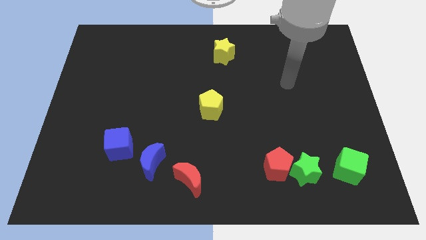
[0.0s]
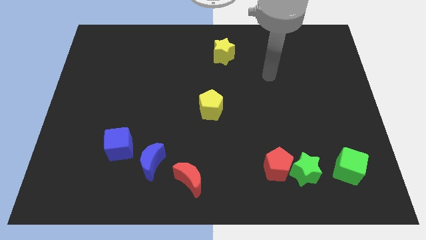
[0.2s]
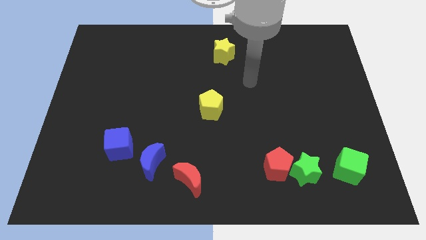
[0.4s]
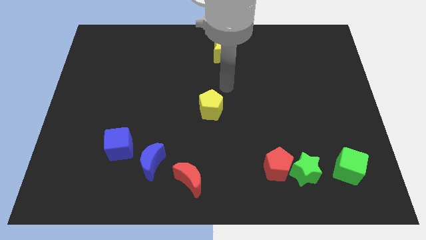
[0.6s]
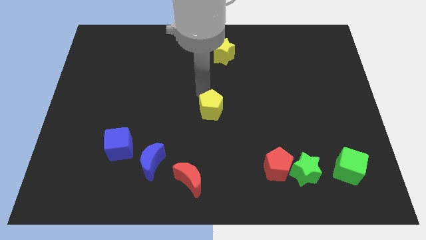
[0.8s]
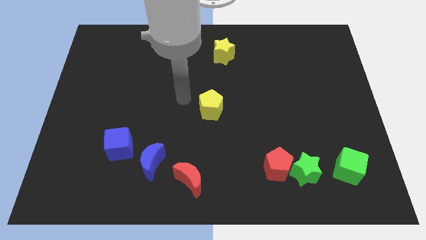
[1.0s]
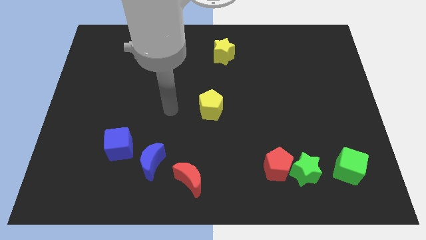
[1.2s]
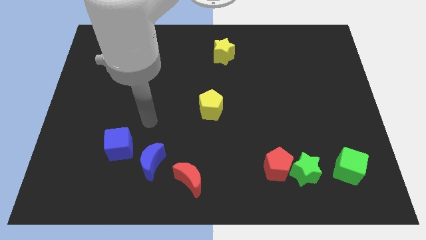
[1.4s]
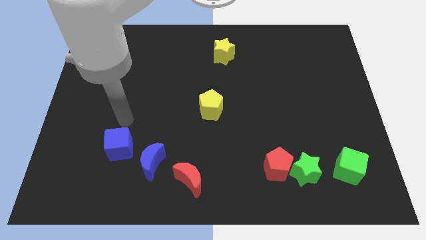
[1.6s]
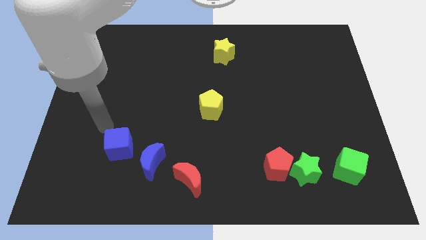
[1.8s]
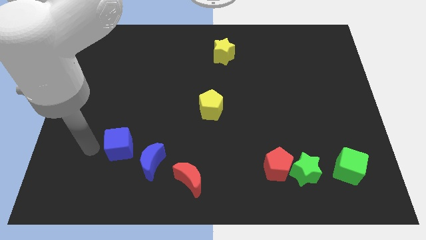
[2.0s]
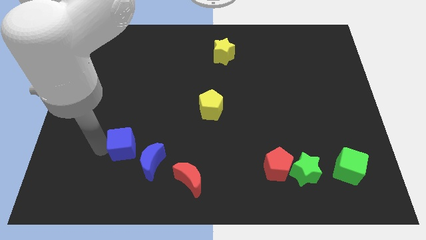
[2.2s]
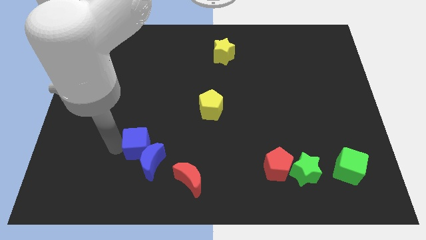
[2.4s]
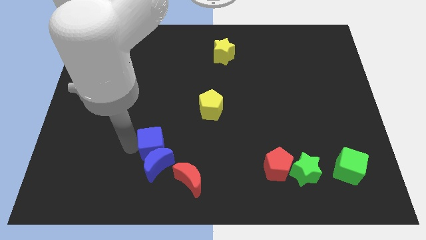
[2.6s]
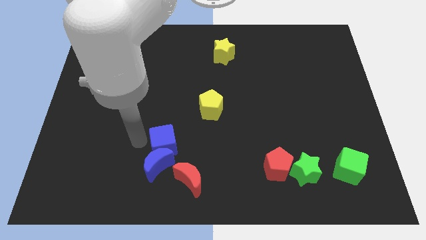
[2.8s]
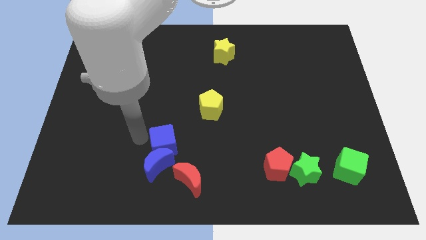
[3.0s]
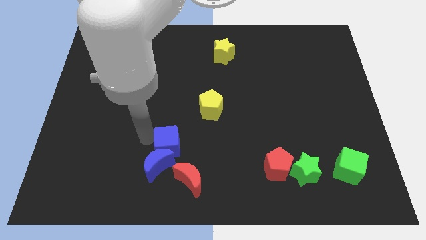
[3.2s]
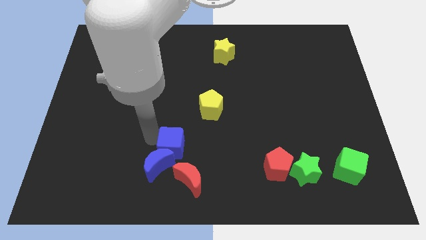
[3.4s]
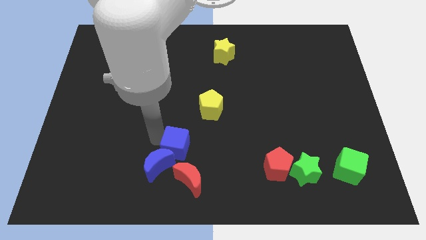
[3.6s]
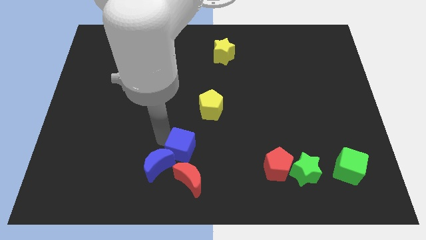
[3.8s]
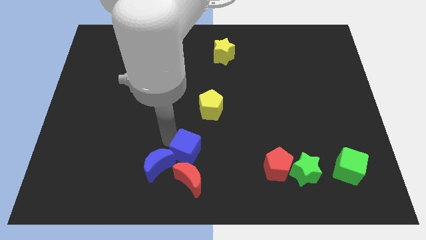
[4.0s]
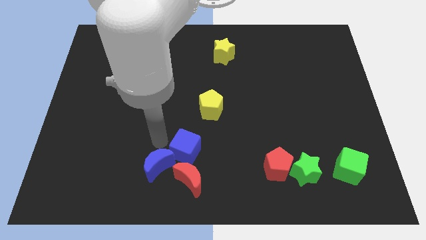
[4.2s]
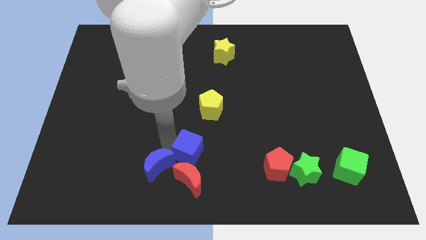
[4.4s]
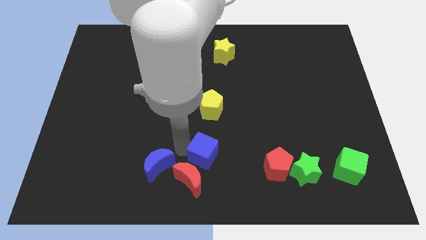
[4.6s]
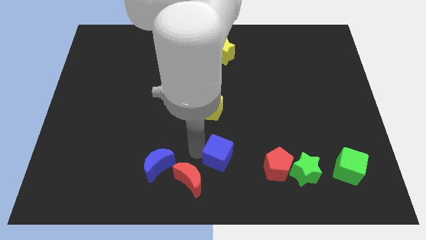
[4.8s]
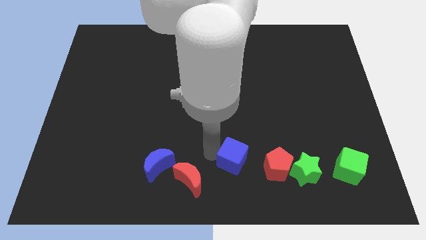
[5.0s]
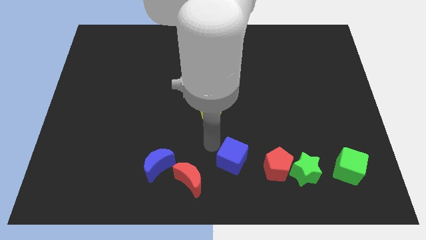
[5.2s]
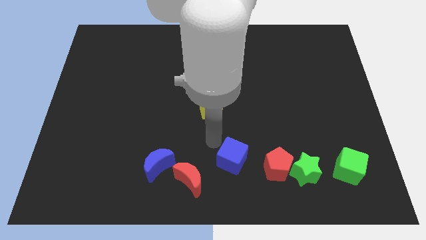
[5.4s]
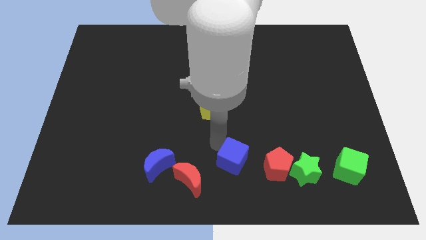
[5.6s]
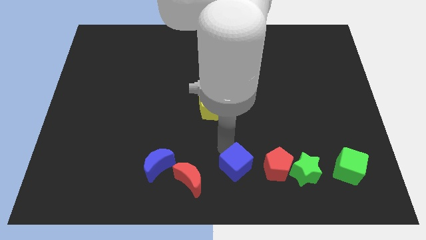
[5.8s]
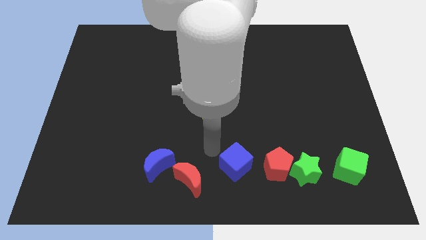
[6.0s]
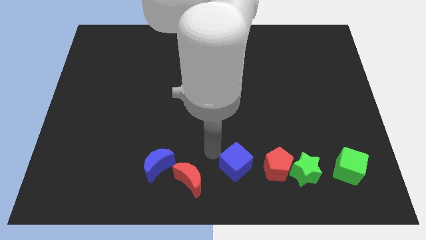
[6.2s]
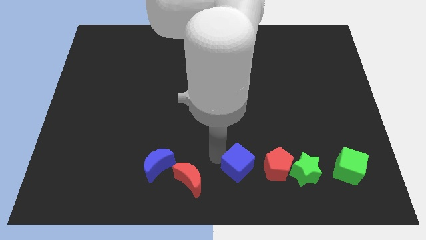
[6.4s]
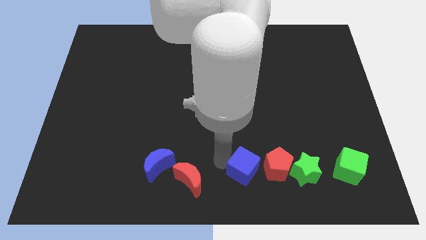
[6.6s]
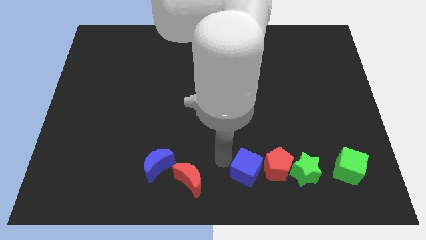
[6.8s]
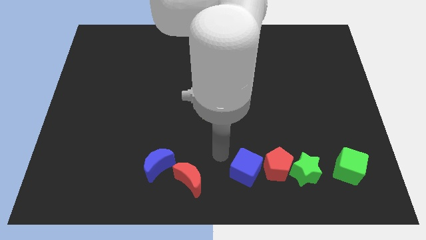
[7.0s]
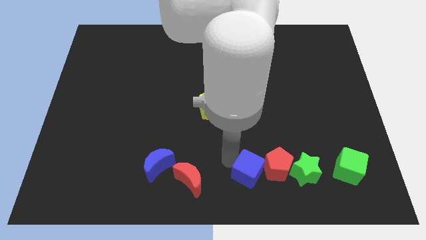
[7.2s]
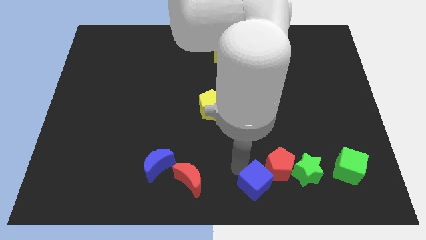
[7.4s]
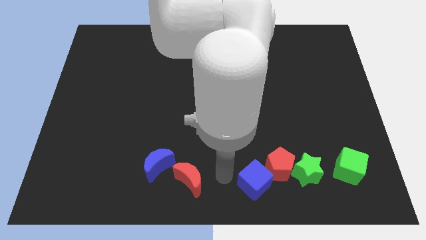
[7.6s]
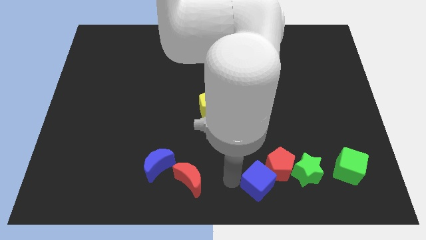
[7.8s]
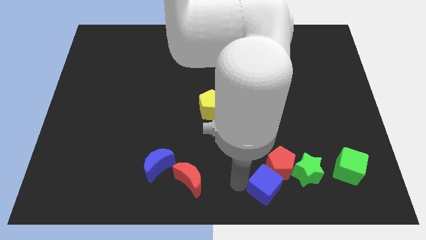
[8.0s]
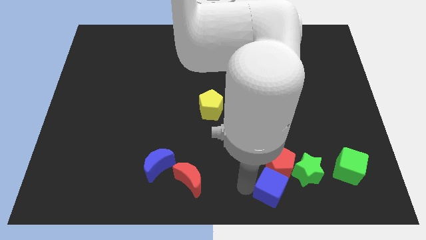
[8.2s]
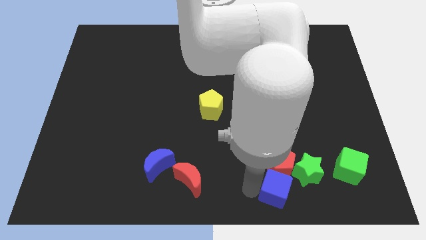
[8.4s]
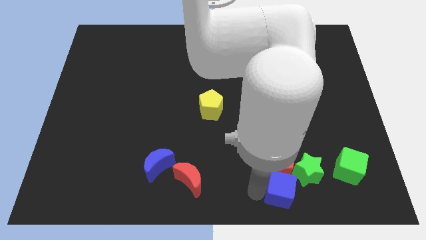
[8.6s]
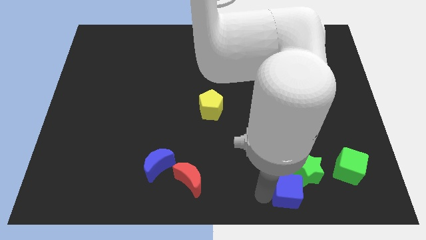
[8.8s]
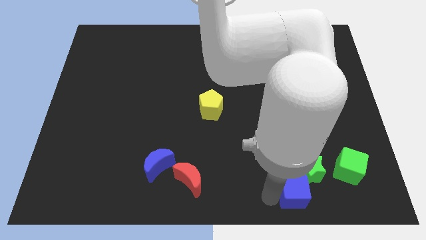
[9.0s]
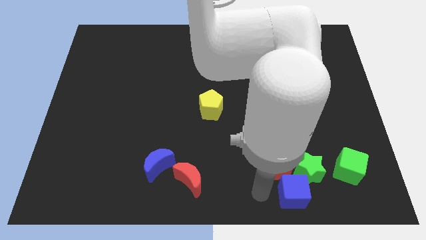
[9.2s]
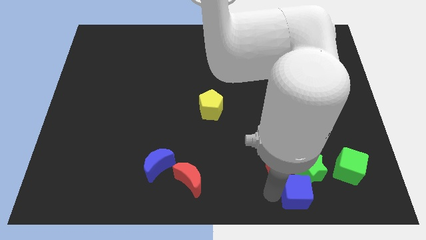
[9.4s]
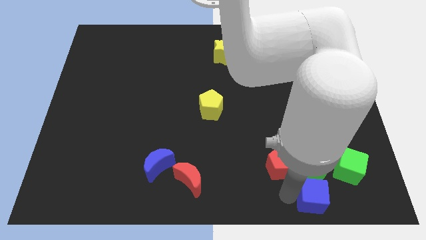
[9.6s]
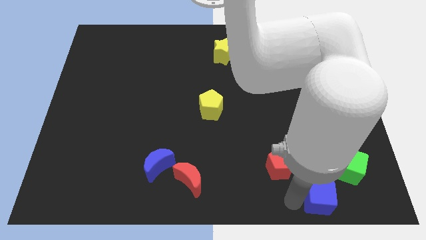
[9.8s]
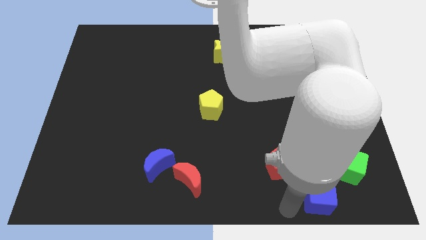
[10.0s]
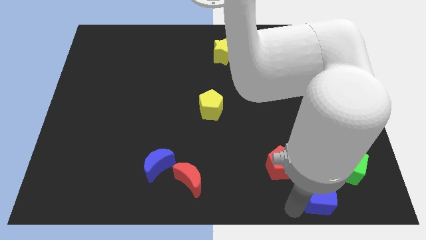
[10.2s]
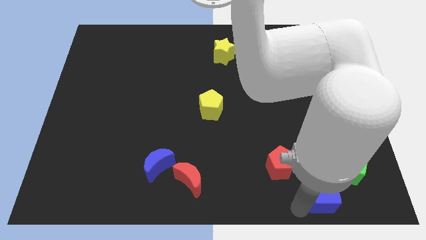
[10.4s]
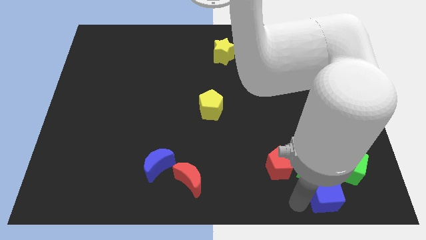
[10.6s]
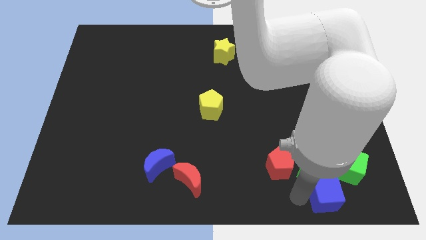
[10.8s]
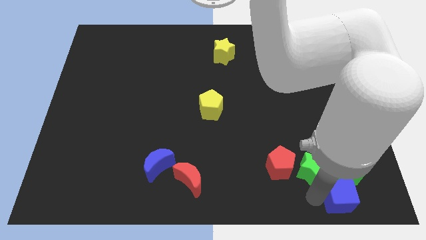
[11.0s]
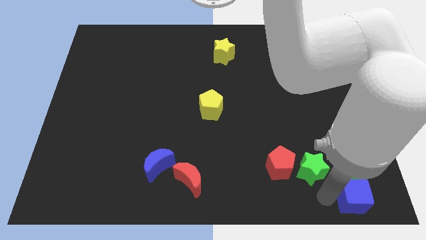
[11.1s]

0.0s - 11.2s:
slide the blue cube to the bottom right corner

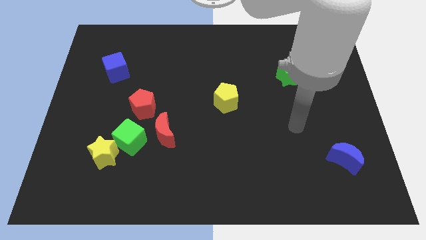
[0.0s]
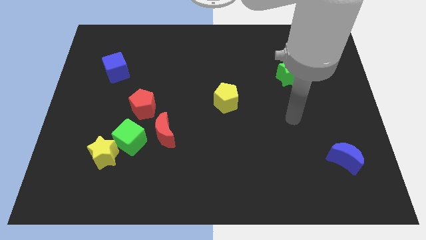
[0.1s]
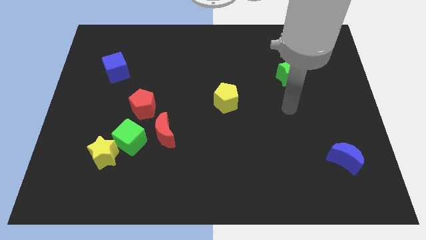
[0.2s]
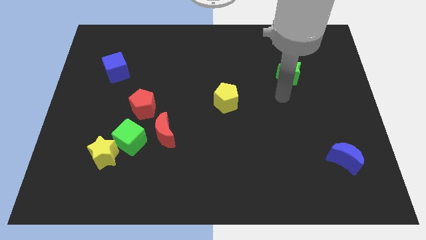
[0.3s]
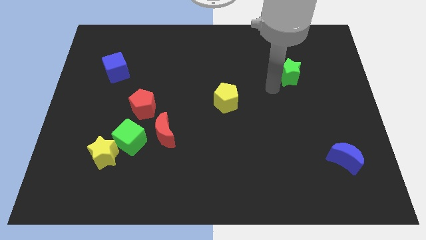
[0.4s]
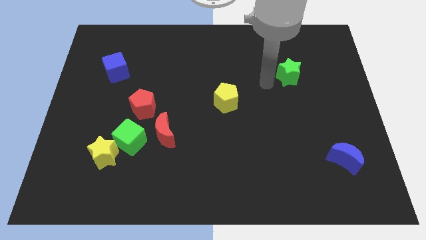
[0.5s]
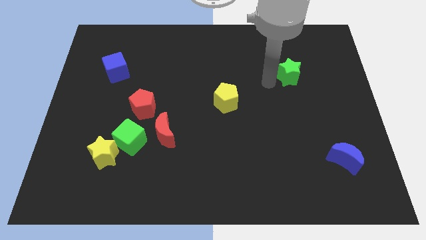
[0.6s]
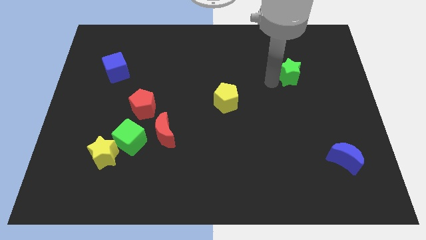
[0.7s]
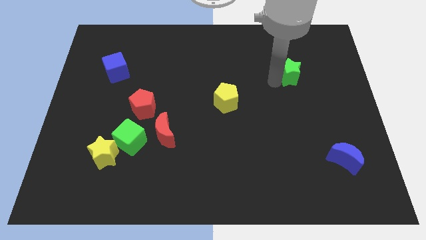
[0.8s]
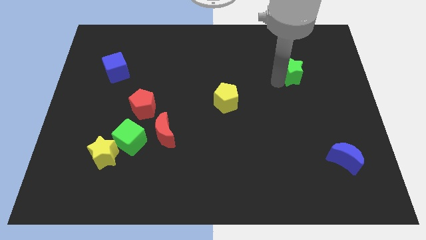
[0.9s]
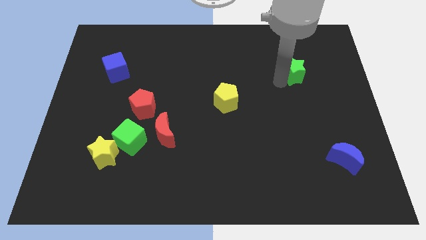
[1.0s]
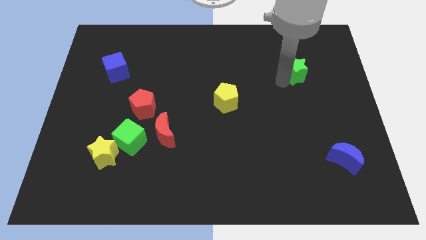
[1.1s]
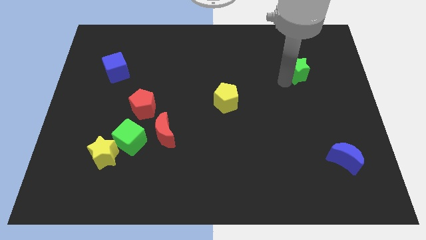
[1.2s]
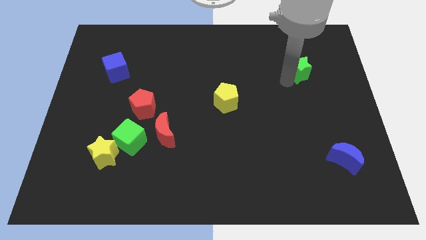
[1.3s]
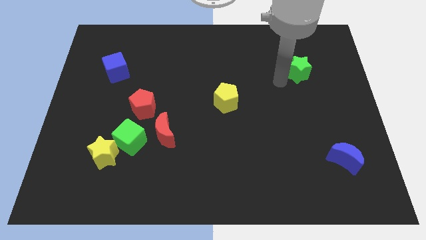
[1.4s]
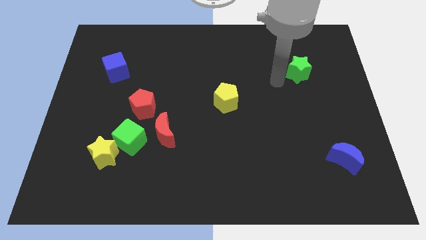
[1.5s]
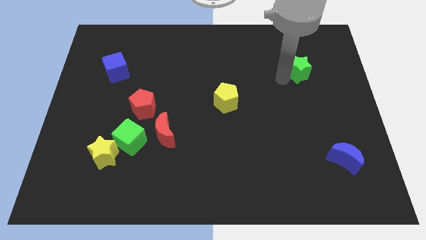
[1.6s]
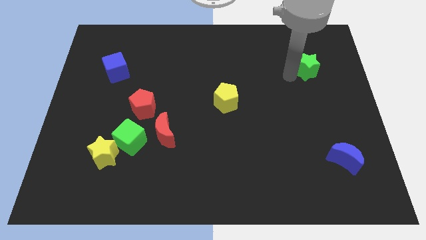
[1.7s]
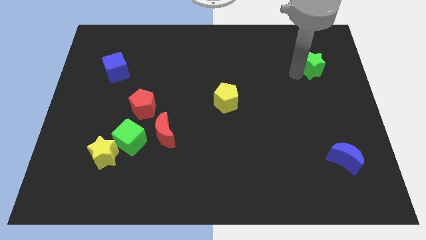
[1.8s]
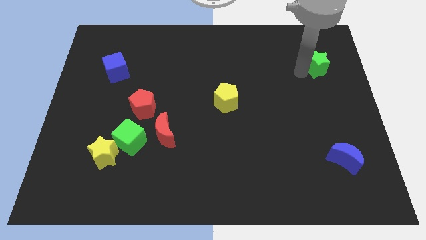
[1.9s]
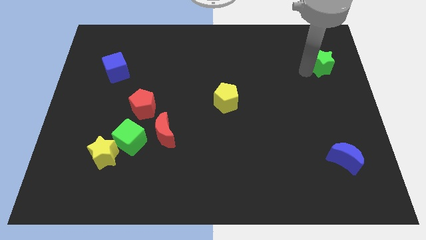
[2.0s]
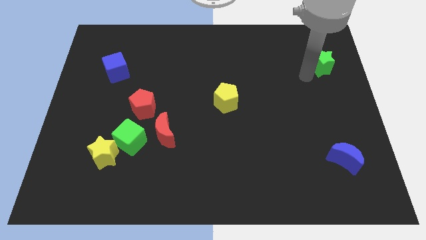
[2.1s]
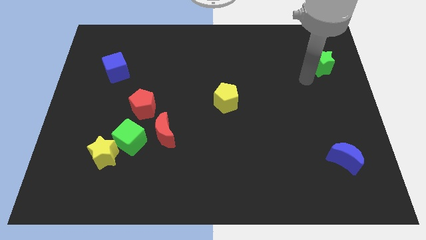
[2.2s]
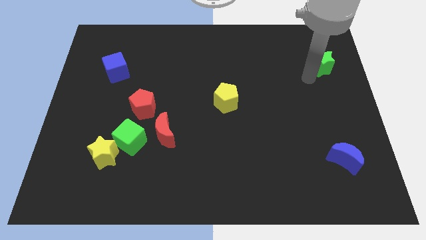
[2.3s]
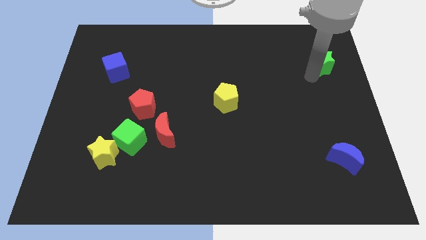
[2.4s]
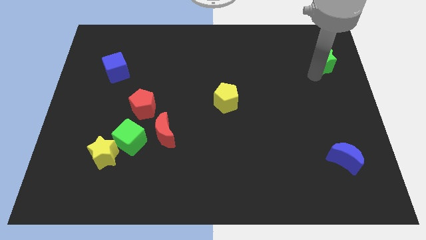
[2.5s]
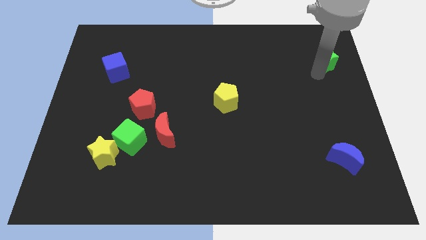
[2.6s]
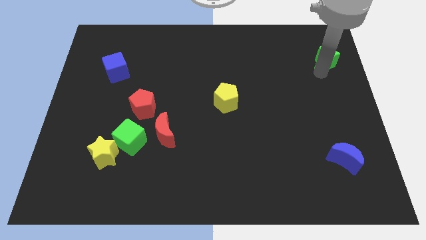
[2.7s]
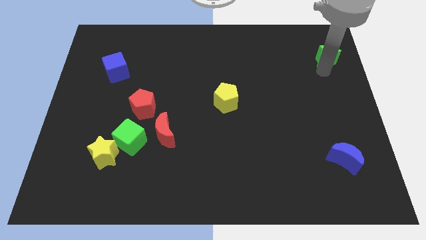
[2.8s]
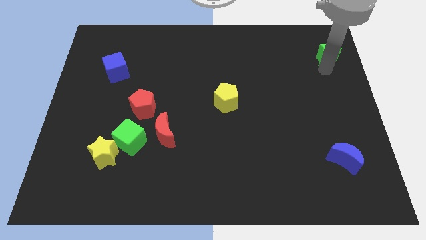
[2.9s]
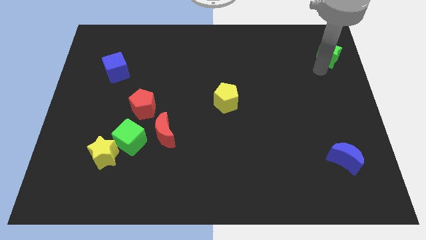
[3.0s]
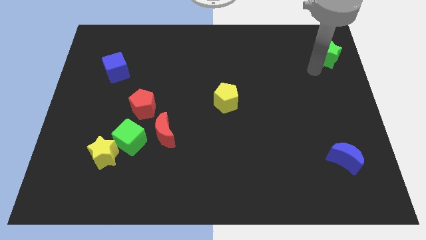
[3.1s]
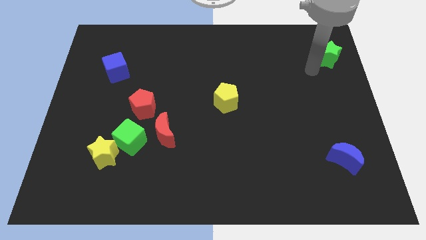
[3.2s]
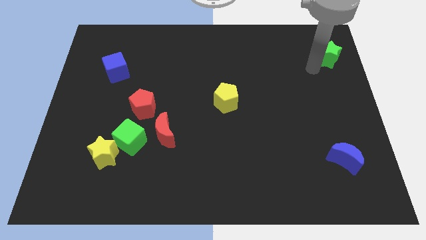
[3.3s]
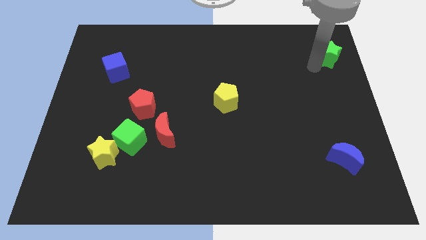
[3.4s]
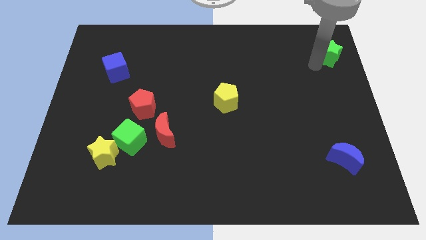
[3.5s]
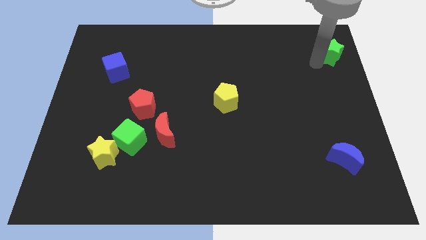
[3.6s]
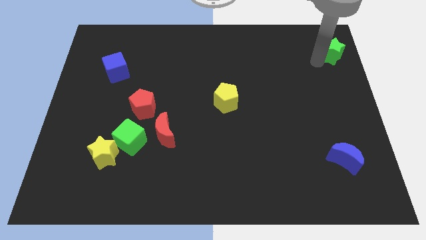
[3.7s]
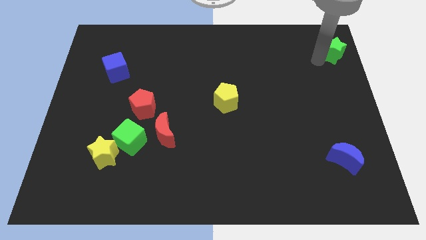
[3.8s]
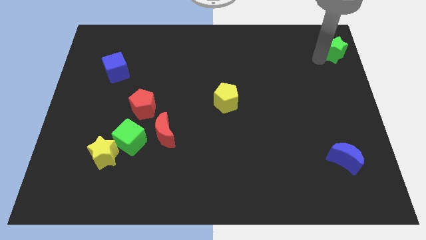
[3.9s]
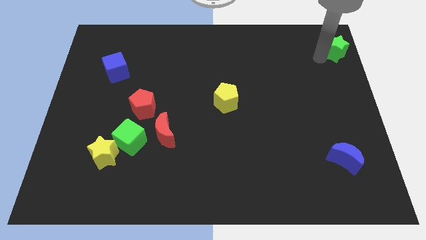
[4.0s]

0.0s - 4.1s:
move the green star to the top right corner
